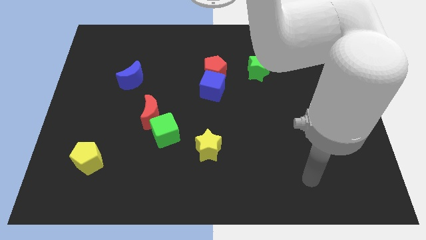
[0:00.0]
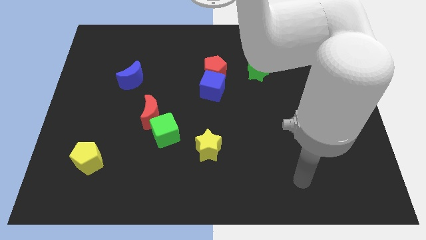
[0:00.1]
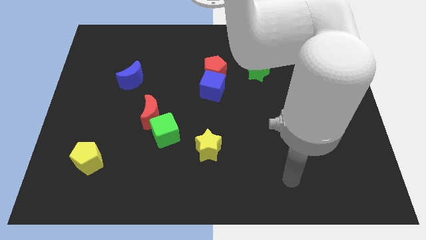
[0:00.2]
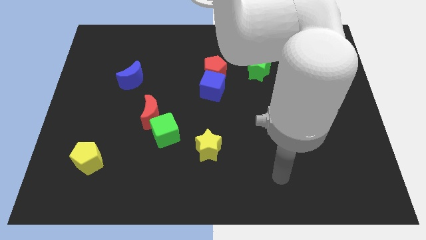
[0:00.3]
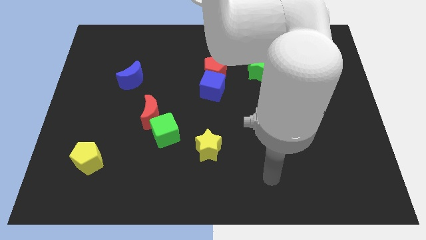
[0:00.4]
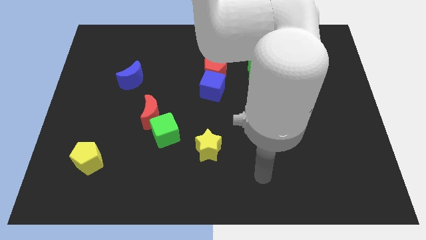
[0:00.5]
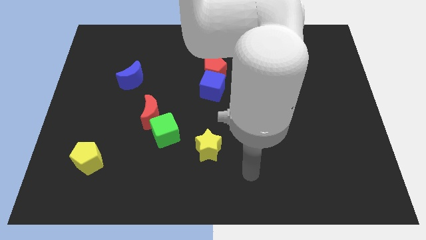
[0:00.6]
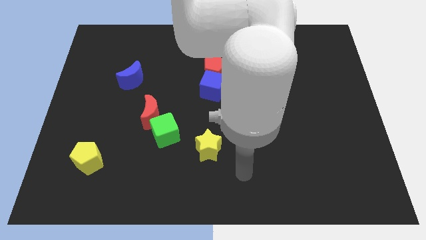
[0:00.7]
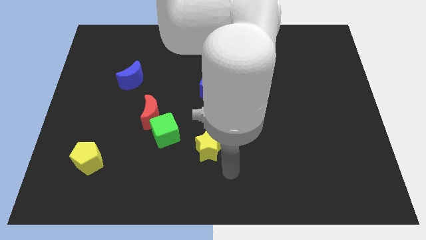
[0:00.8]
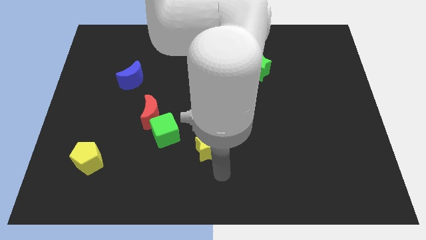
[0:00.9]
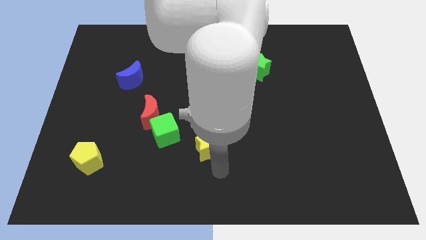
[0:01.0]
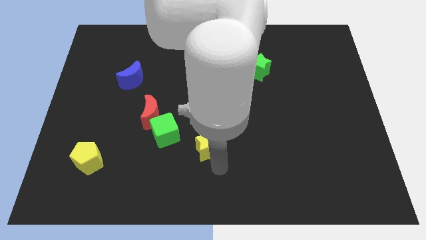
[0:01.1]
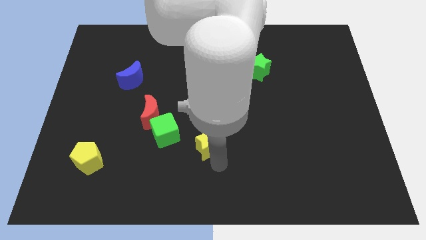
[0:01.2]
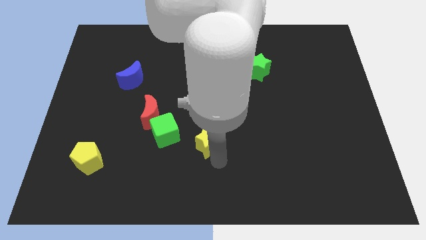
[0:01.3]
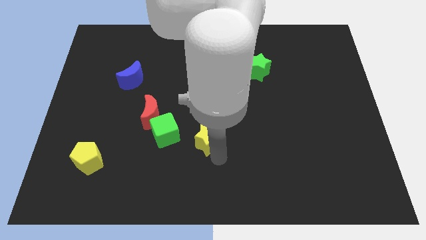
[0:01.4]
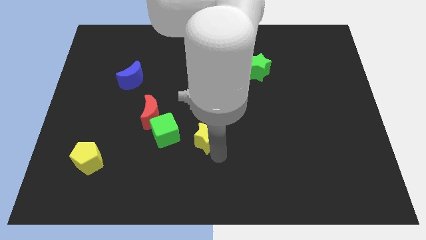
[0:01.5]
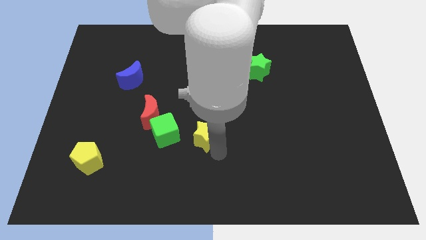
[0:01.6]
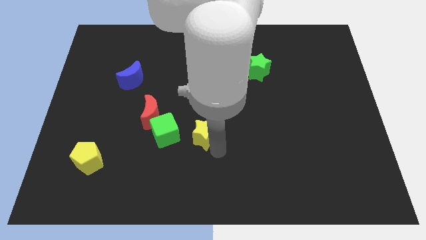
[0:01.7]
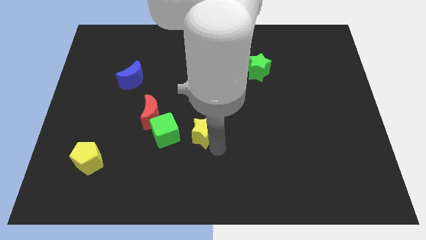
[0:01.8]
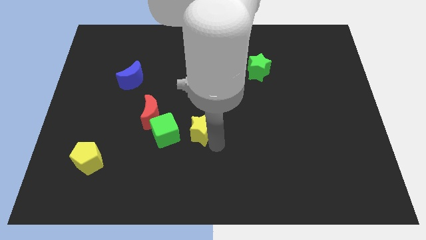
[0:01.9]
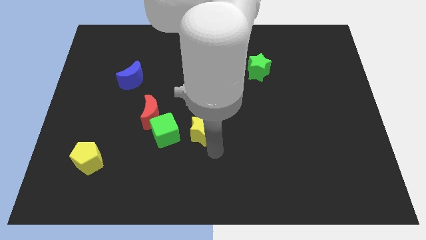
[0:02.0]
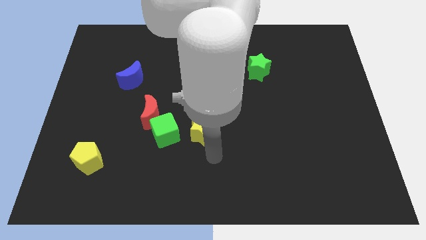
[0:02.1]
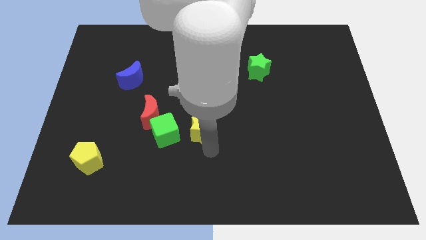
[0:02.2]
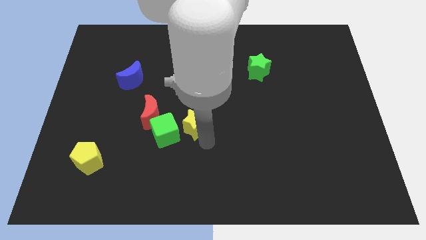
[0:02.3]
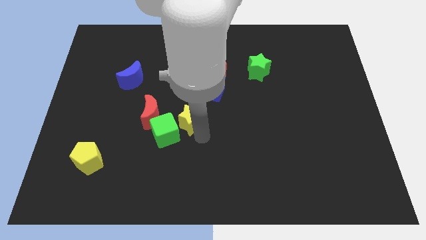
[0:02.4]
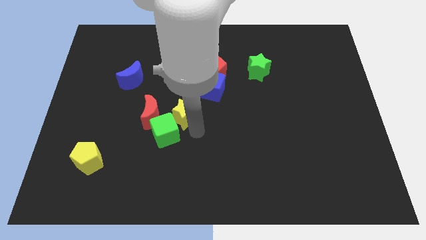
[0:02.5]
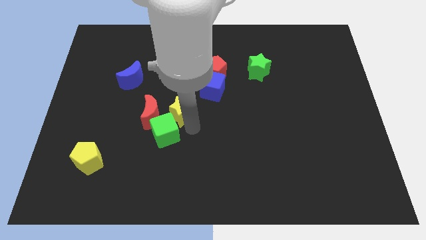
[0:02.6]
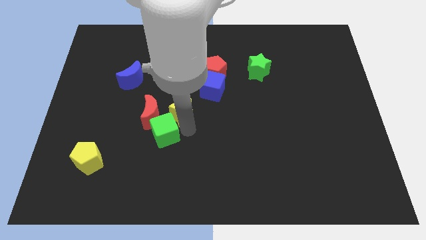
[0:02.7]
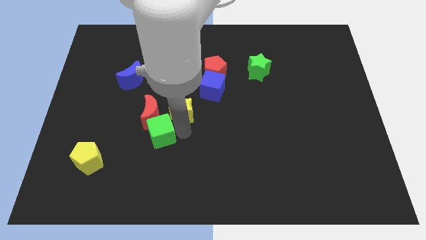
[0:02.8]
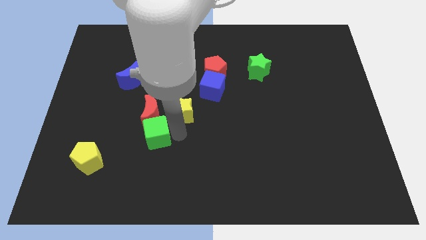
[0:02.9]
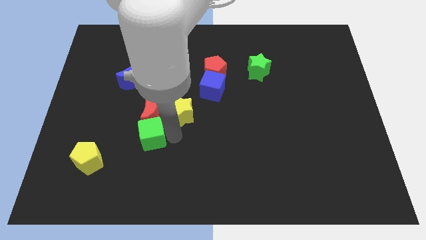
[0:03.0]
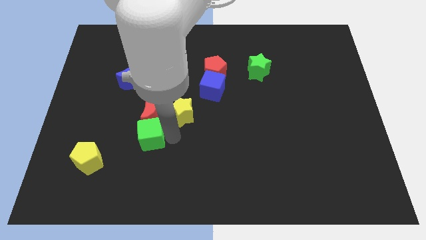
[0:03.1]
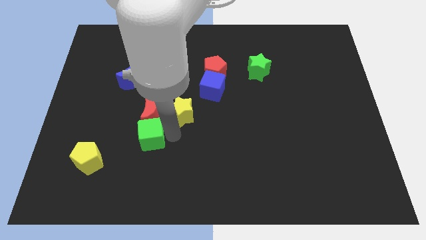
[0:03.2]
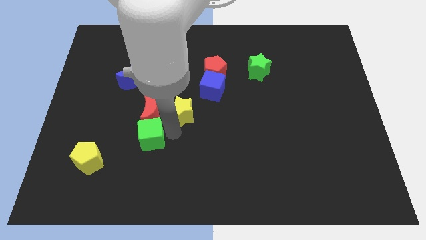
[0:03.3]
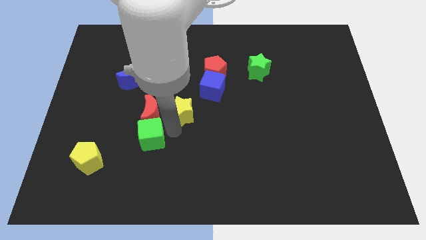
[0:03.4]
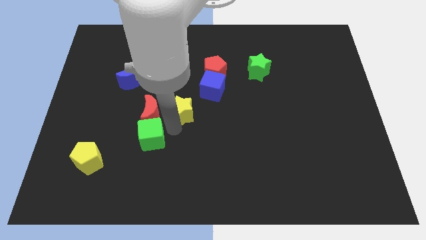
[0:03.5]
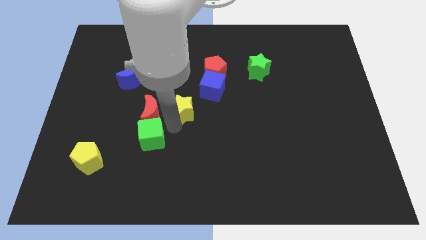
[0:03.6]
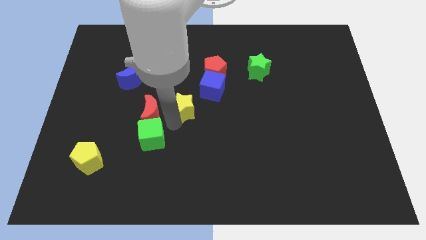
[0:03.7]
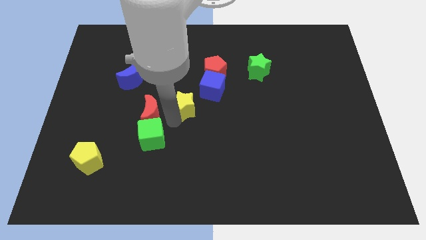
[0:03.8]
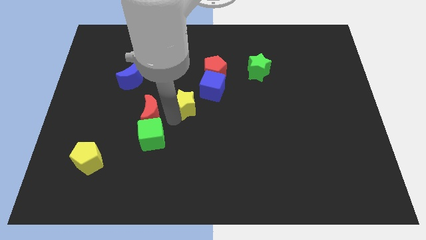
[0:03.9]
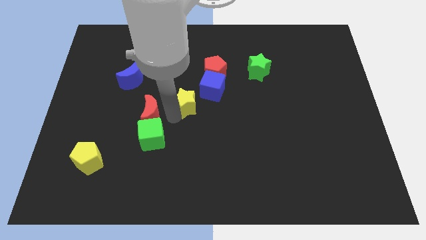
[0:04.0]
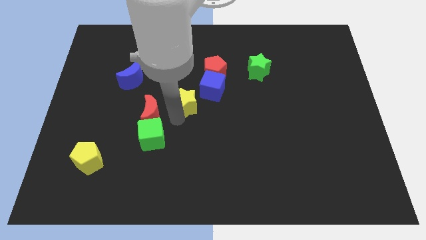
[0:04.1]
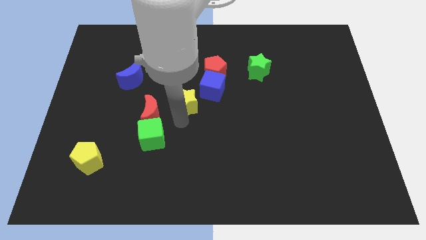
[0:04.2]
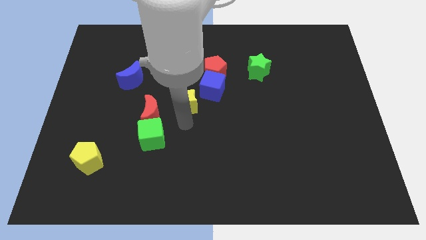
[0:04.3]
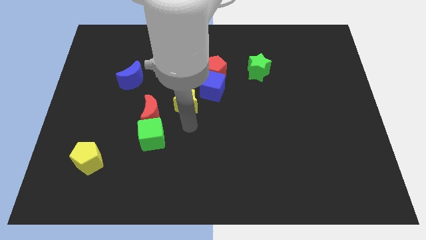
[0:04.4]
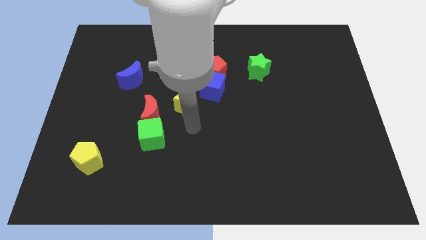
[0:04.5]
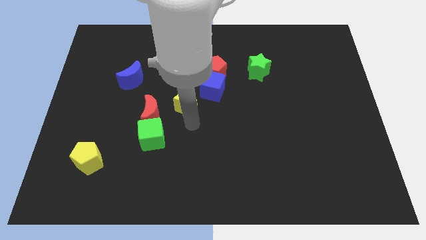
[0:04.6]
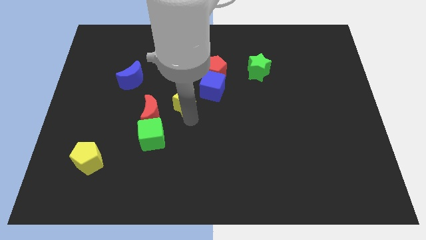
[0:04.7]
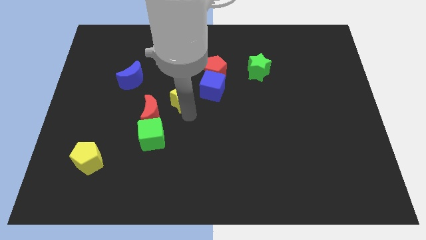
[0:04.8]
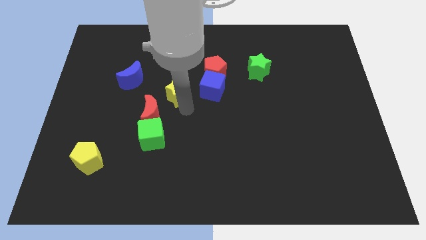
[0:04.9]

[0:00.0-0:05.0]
put the yellow star to the right of the blue moon

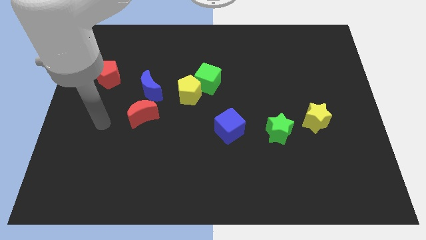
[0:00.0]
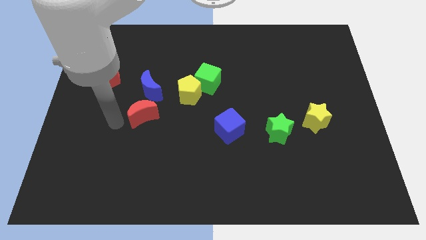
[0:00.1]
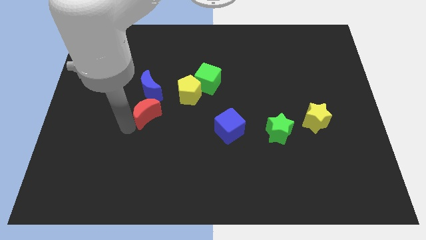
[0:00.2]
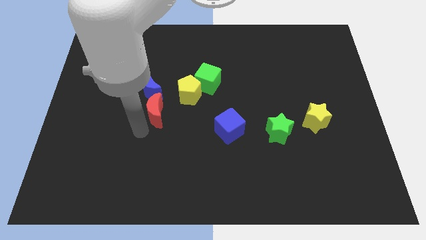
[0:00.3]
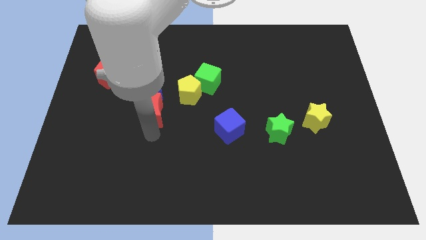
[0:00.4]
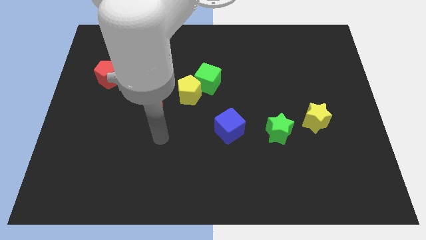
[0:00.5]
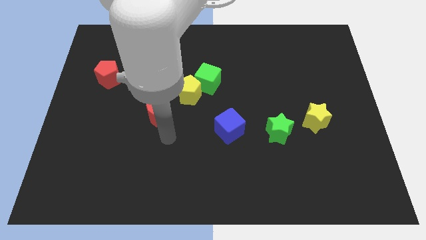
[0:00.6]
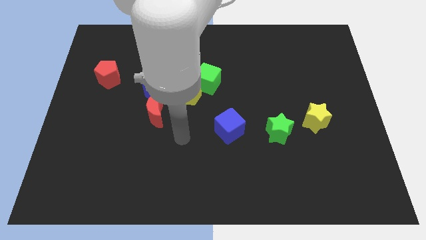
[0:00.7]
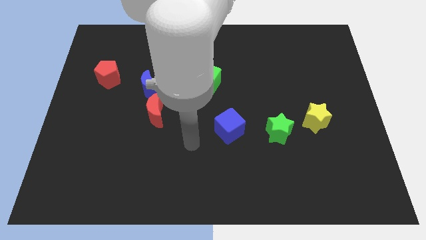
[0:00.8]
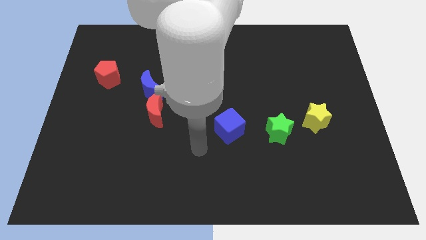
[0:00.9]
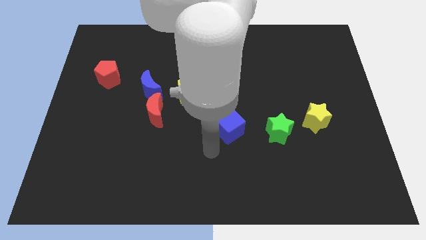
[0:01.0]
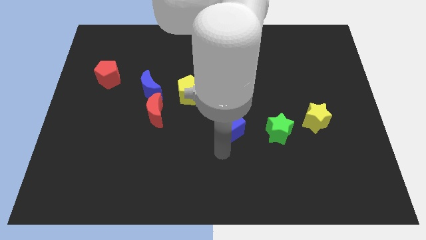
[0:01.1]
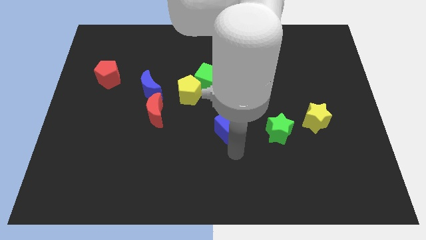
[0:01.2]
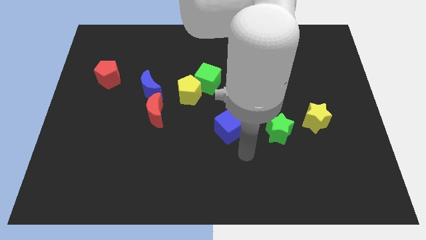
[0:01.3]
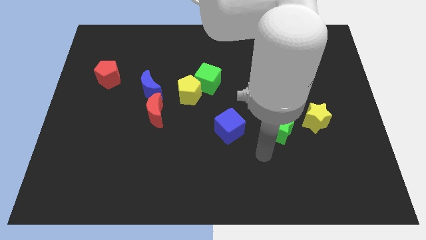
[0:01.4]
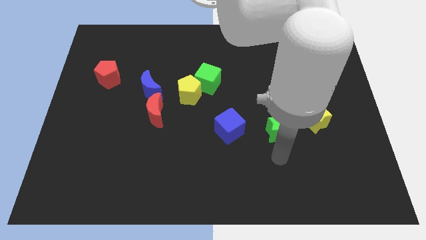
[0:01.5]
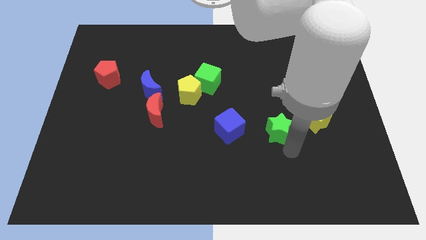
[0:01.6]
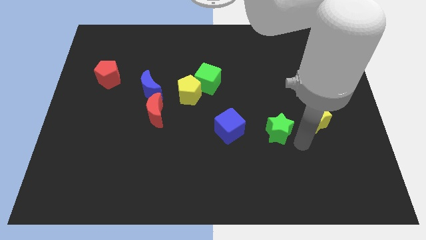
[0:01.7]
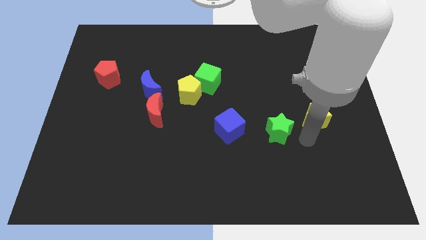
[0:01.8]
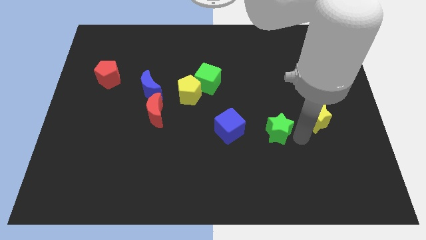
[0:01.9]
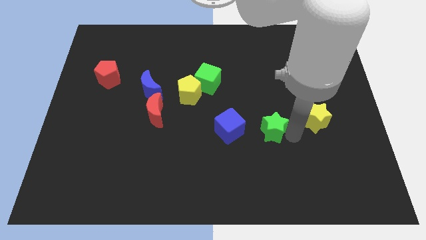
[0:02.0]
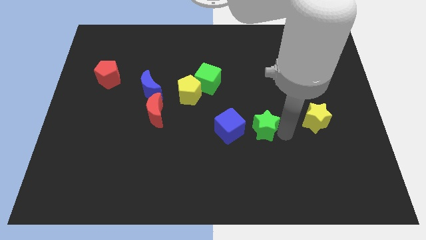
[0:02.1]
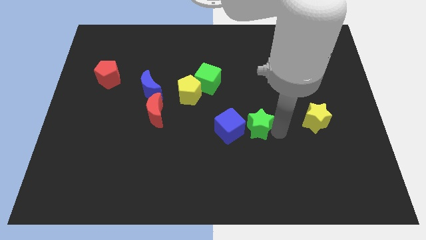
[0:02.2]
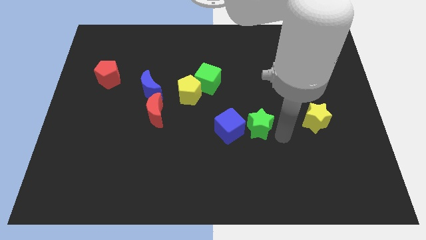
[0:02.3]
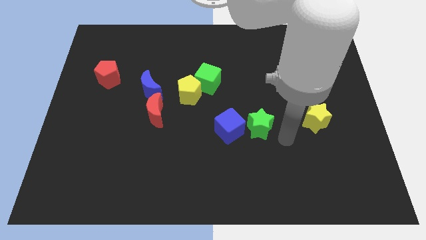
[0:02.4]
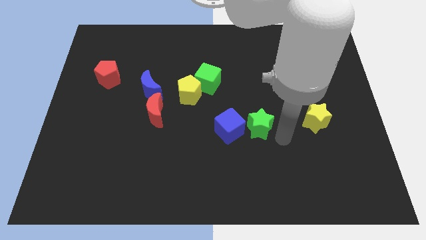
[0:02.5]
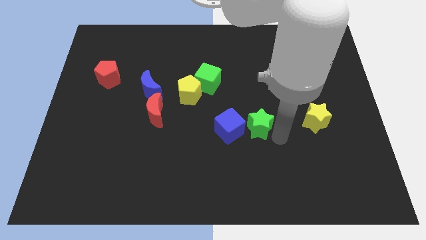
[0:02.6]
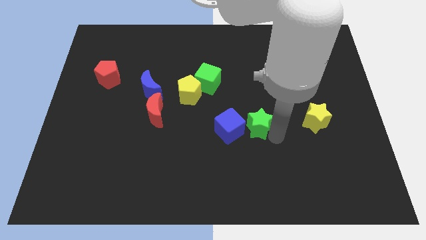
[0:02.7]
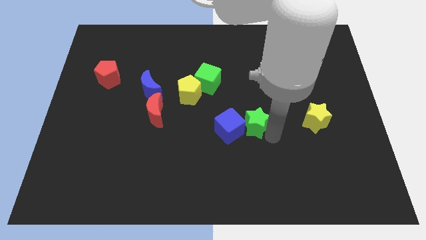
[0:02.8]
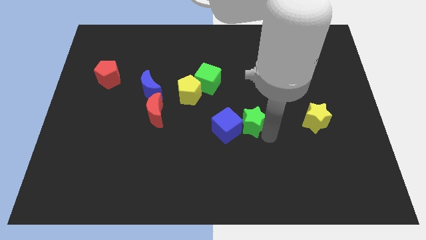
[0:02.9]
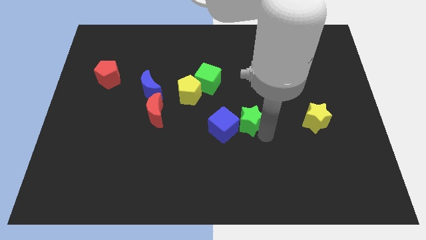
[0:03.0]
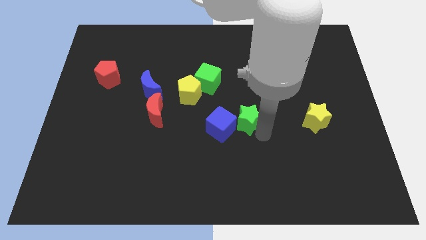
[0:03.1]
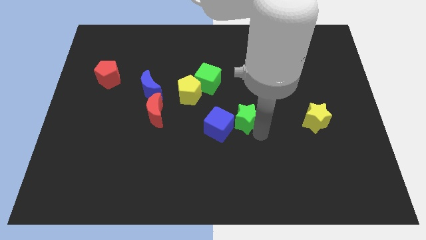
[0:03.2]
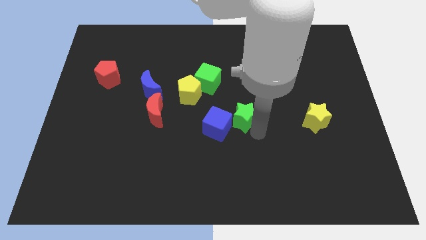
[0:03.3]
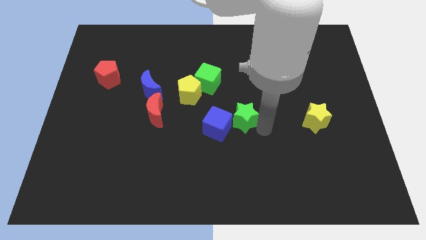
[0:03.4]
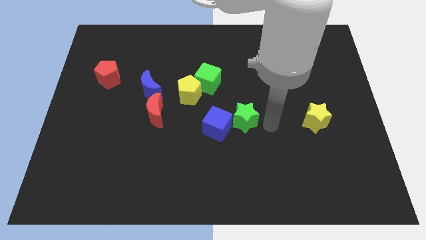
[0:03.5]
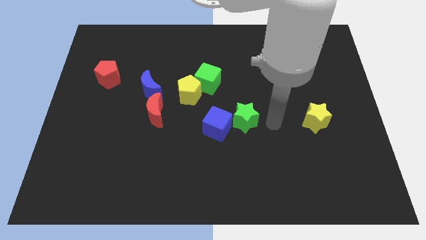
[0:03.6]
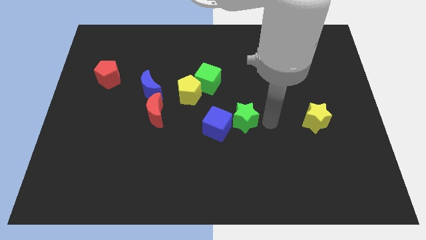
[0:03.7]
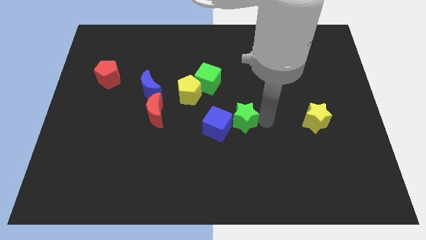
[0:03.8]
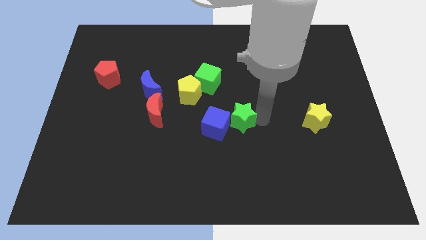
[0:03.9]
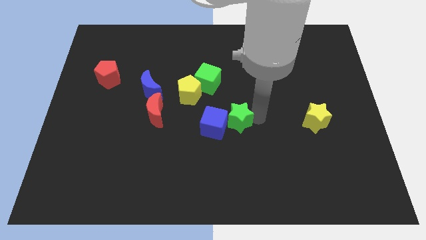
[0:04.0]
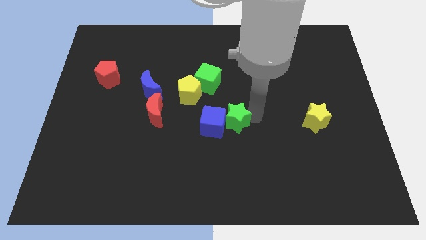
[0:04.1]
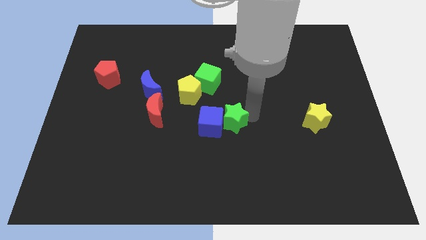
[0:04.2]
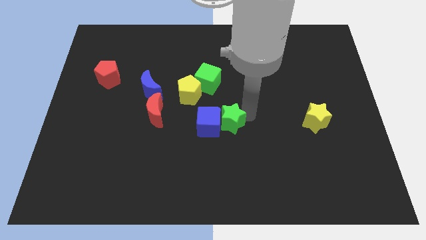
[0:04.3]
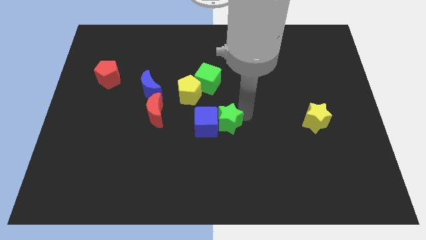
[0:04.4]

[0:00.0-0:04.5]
put the green star below the green cube
